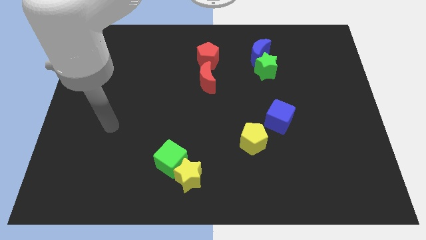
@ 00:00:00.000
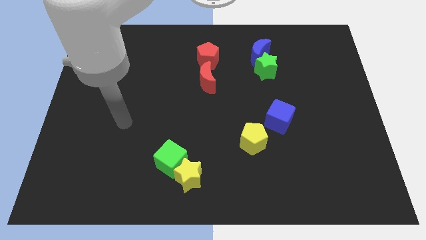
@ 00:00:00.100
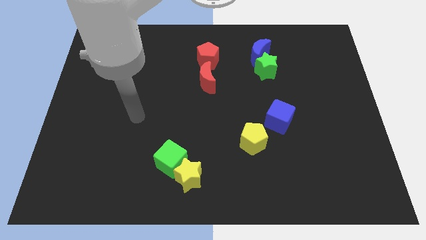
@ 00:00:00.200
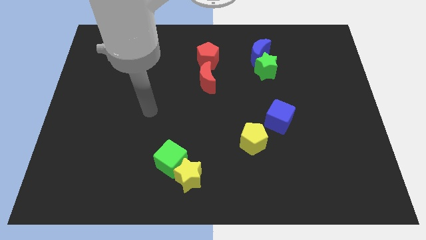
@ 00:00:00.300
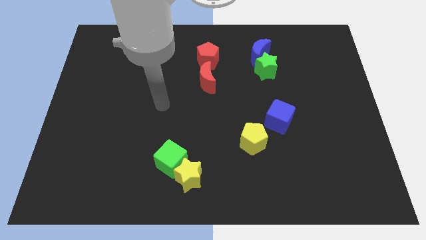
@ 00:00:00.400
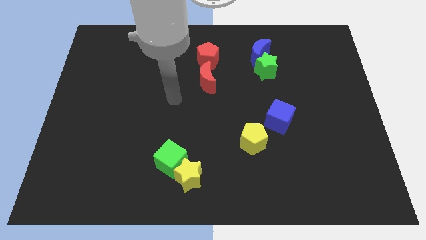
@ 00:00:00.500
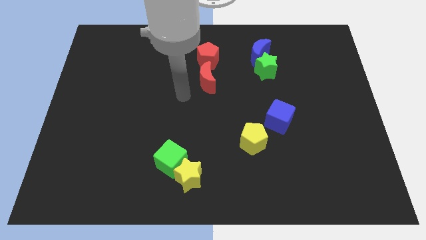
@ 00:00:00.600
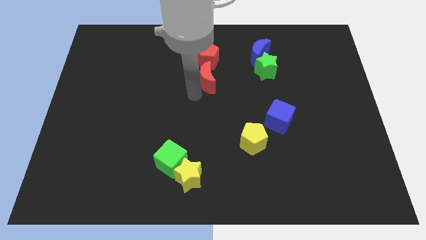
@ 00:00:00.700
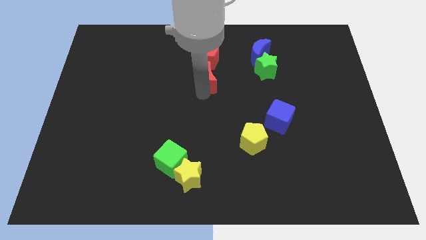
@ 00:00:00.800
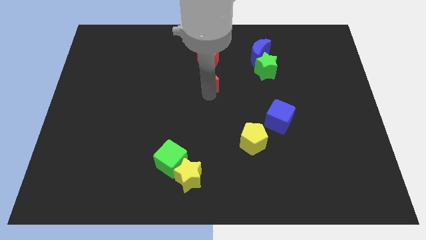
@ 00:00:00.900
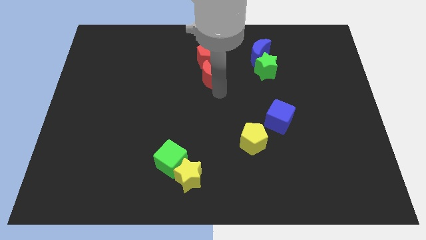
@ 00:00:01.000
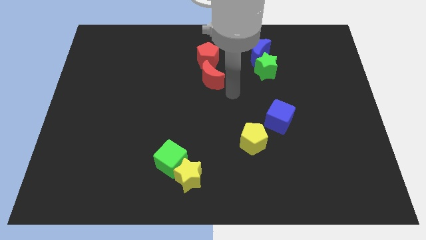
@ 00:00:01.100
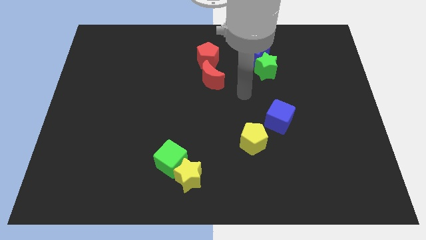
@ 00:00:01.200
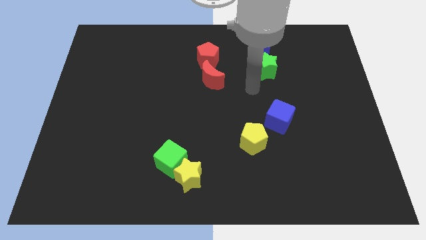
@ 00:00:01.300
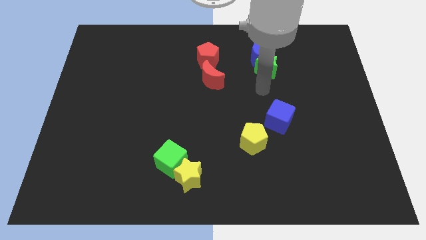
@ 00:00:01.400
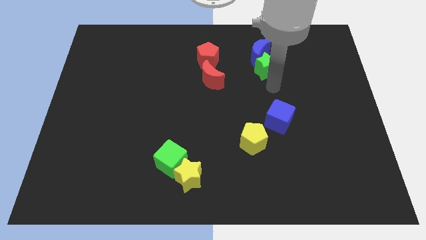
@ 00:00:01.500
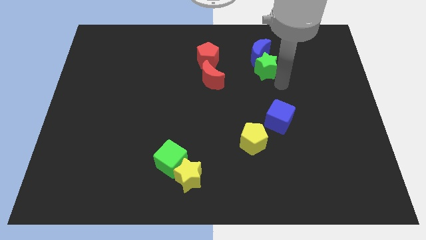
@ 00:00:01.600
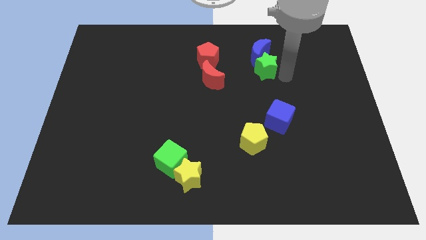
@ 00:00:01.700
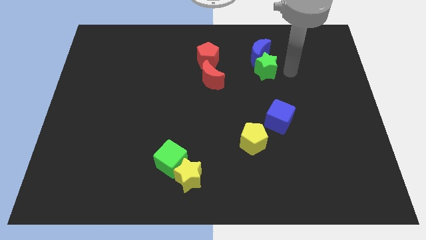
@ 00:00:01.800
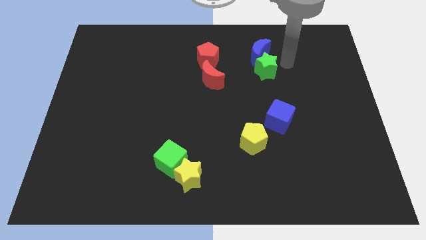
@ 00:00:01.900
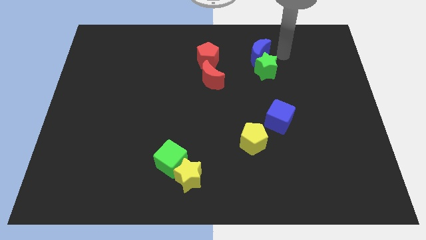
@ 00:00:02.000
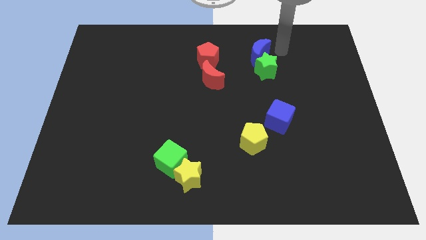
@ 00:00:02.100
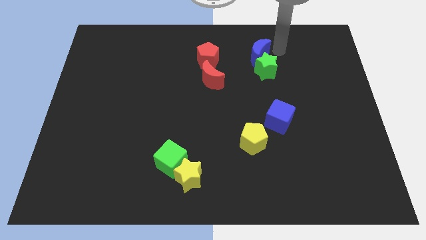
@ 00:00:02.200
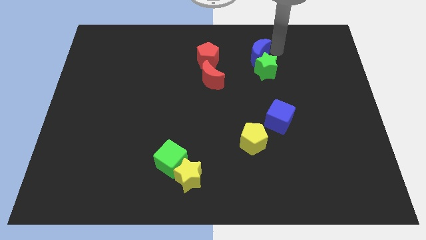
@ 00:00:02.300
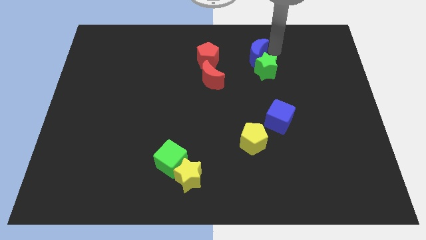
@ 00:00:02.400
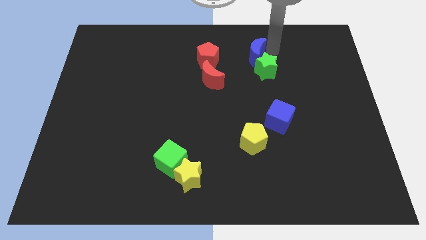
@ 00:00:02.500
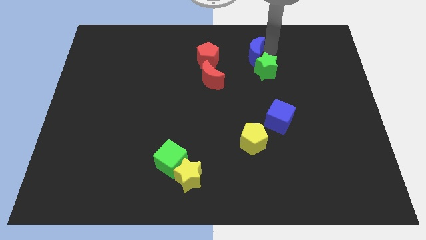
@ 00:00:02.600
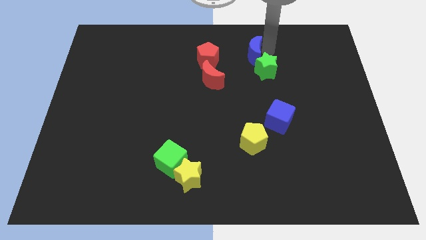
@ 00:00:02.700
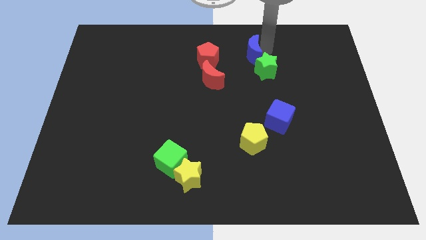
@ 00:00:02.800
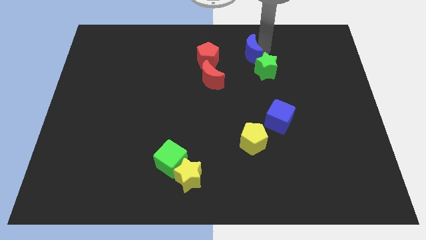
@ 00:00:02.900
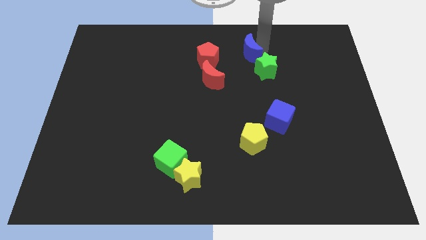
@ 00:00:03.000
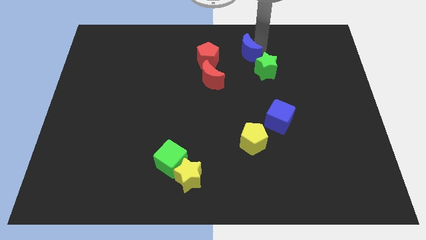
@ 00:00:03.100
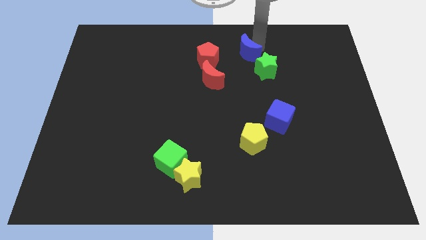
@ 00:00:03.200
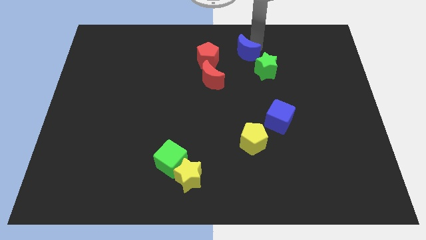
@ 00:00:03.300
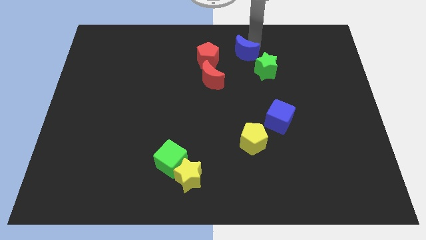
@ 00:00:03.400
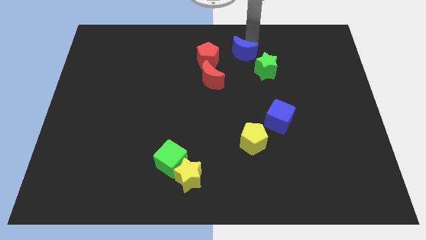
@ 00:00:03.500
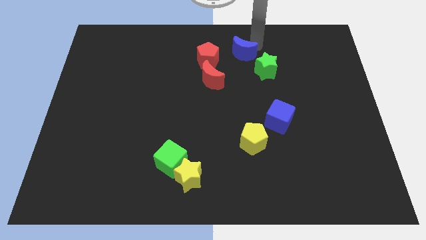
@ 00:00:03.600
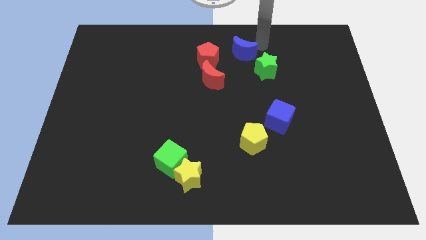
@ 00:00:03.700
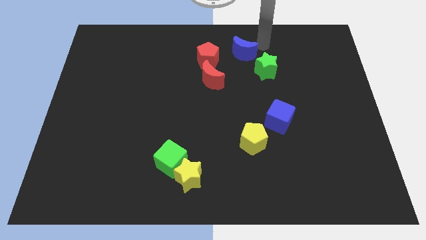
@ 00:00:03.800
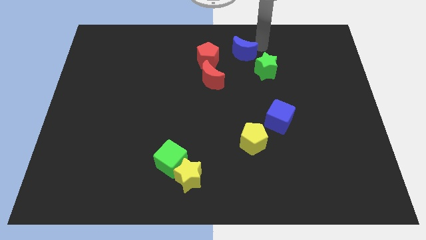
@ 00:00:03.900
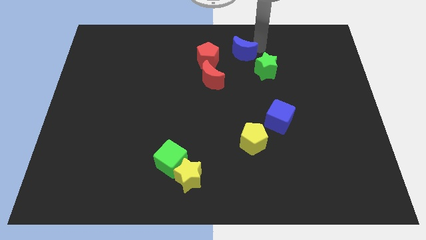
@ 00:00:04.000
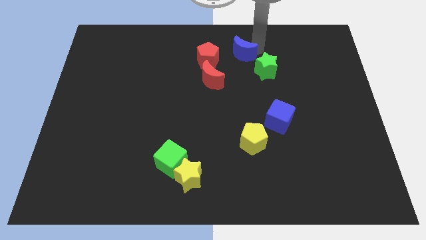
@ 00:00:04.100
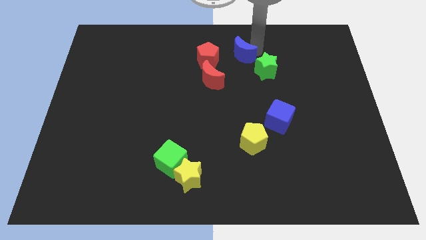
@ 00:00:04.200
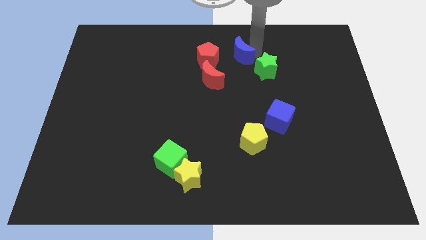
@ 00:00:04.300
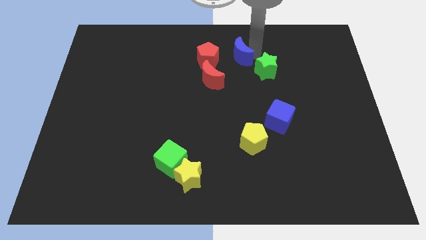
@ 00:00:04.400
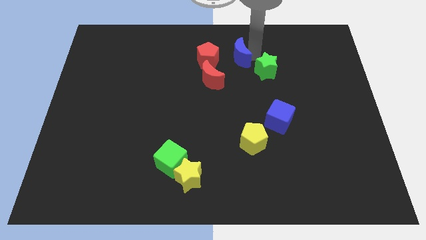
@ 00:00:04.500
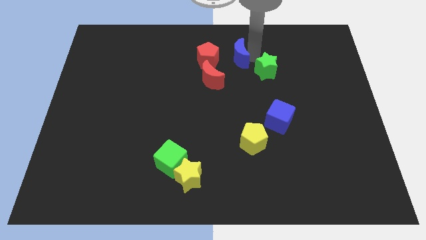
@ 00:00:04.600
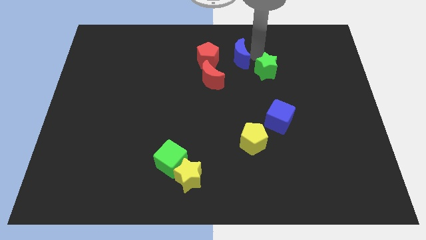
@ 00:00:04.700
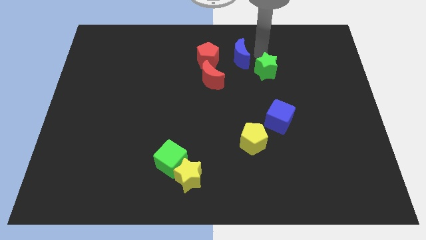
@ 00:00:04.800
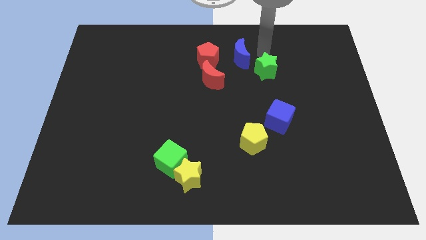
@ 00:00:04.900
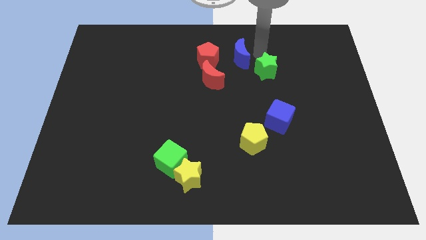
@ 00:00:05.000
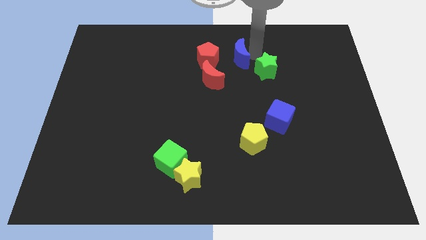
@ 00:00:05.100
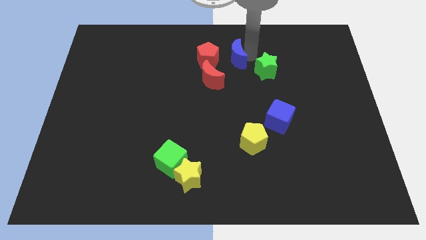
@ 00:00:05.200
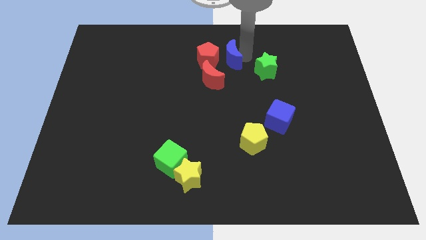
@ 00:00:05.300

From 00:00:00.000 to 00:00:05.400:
slide the blue moon next to the red pentagon

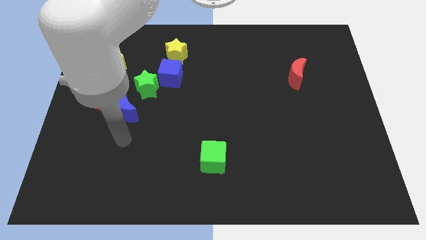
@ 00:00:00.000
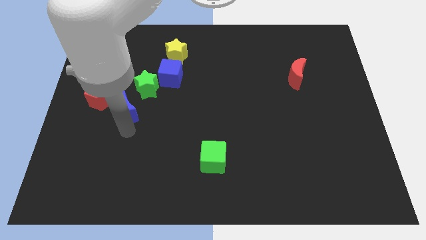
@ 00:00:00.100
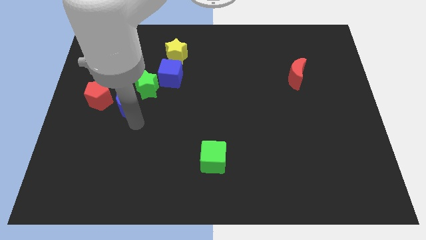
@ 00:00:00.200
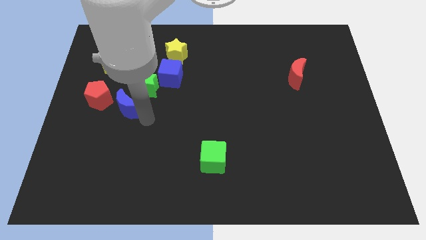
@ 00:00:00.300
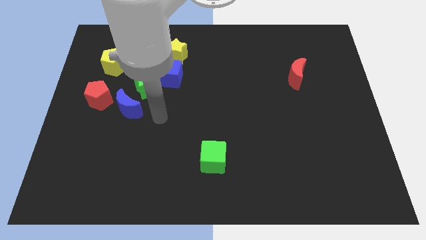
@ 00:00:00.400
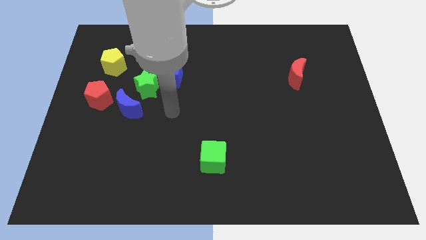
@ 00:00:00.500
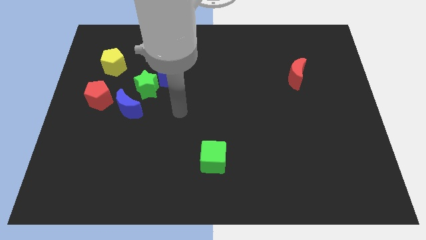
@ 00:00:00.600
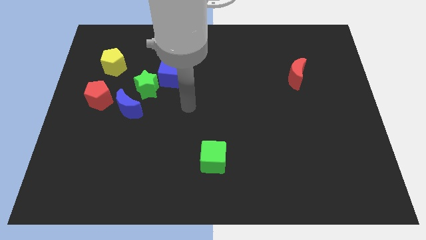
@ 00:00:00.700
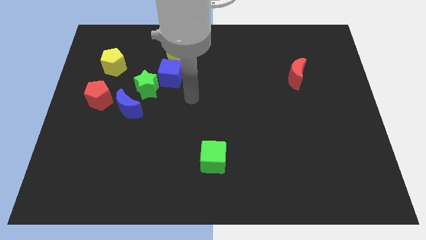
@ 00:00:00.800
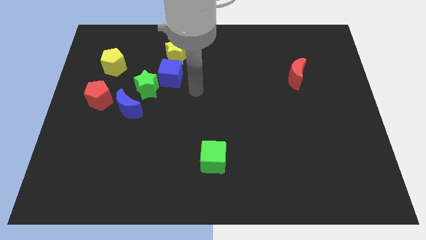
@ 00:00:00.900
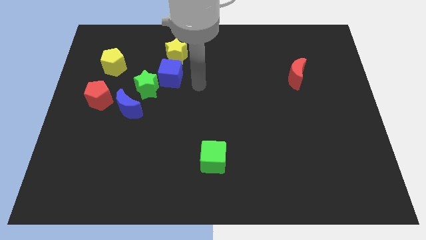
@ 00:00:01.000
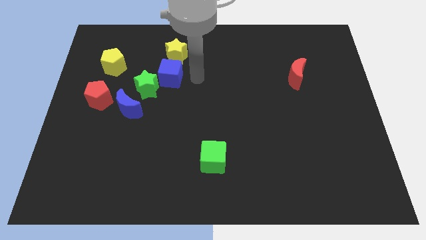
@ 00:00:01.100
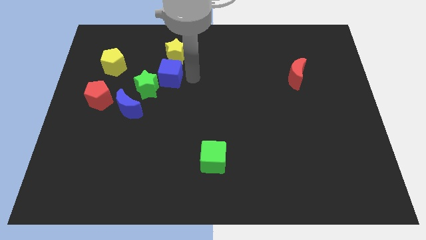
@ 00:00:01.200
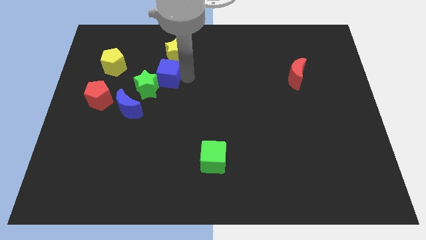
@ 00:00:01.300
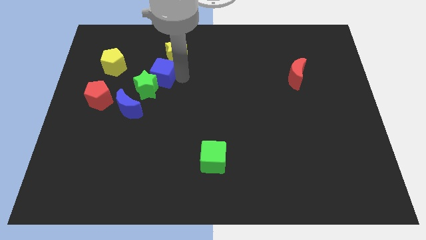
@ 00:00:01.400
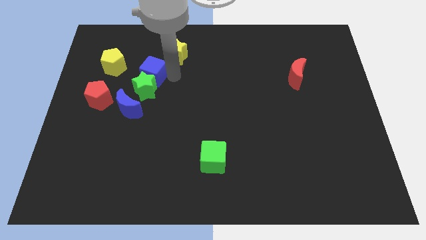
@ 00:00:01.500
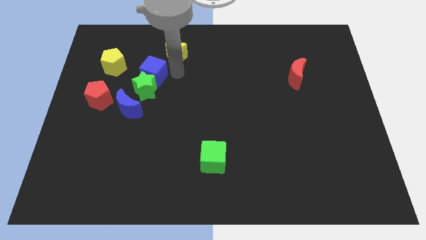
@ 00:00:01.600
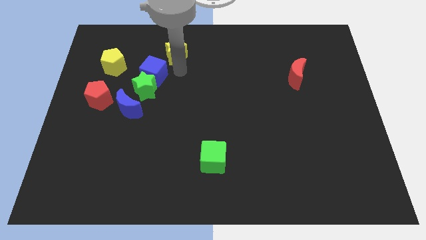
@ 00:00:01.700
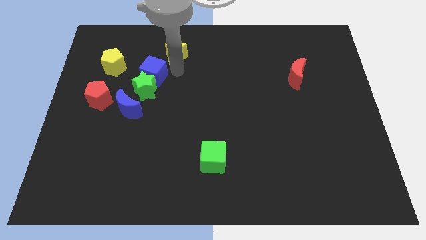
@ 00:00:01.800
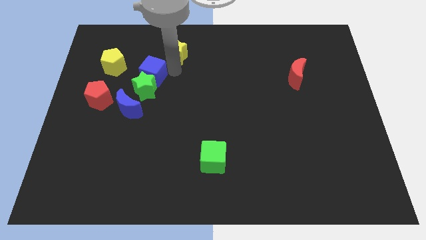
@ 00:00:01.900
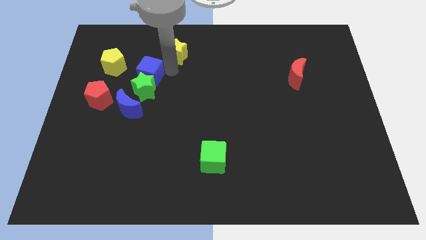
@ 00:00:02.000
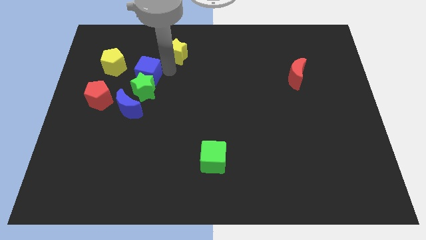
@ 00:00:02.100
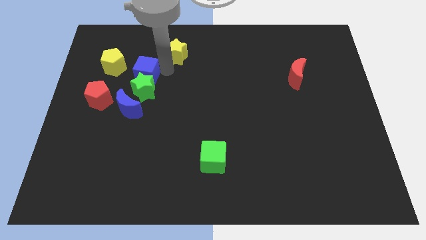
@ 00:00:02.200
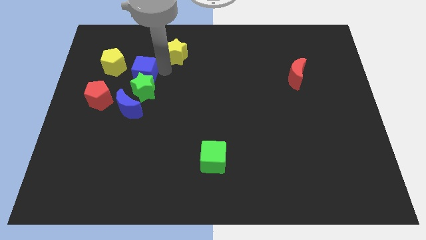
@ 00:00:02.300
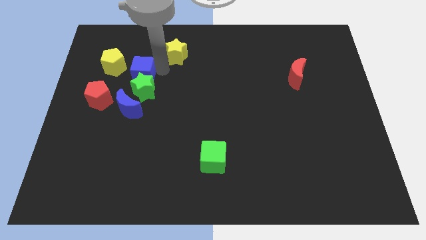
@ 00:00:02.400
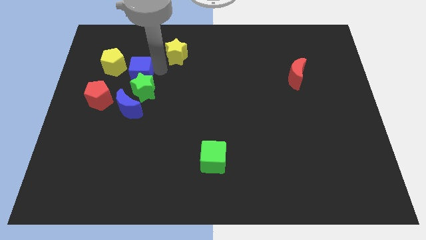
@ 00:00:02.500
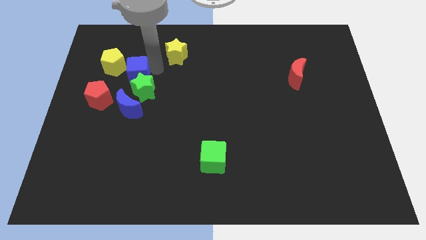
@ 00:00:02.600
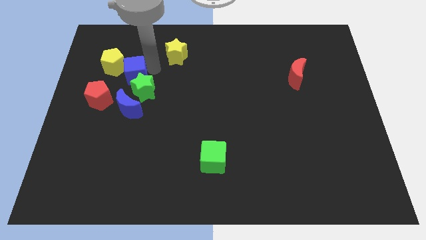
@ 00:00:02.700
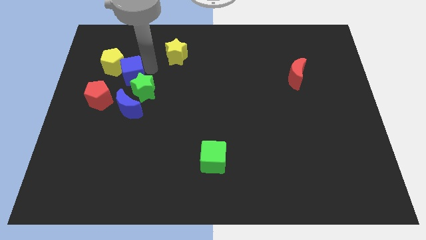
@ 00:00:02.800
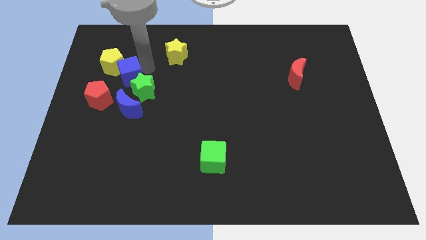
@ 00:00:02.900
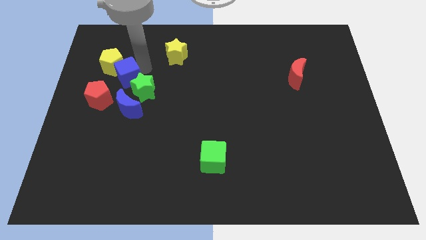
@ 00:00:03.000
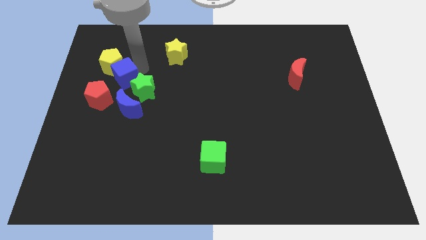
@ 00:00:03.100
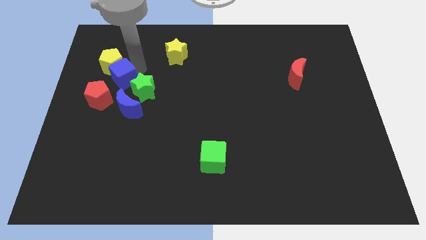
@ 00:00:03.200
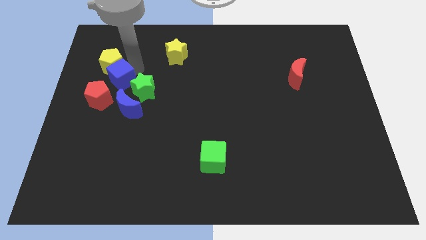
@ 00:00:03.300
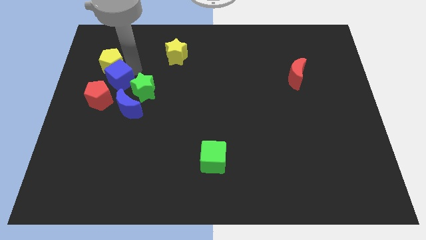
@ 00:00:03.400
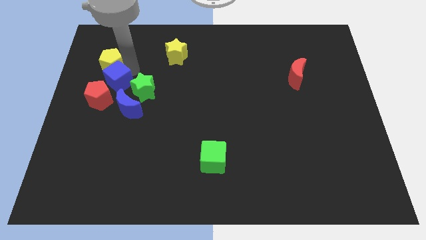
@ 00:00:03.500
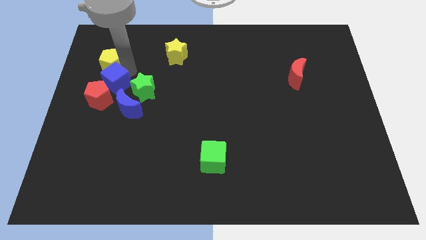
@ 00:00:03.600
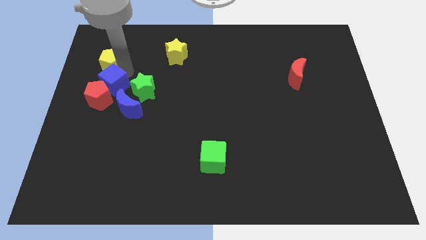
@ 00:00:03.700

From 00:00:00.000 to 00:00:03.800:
put the blue cube close to the red pentagon
